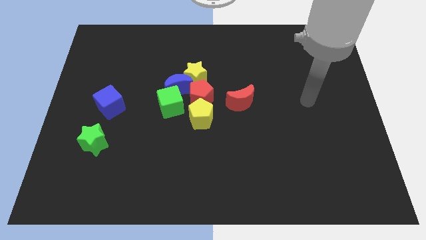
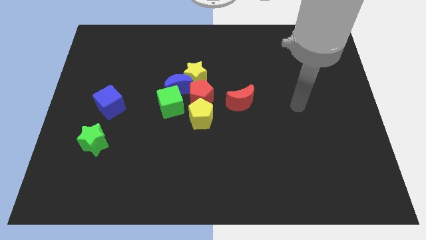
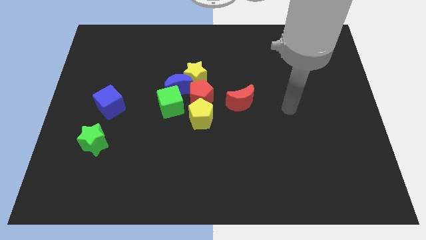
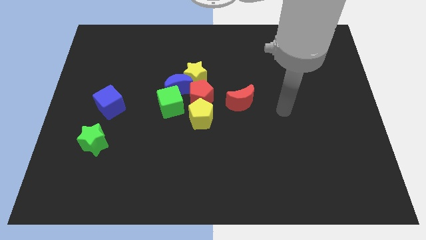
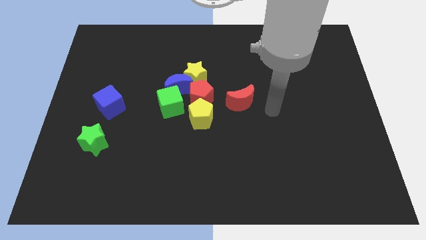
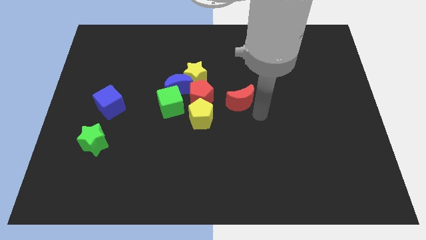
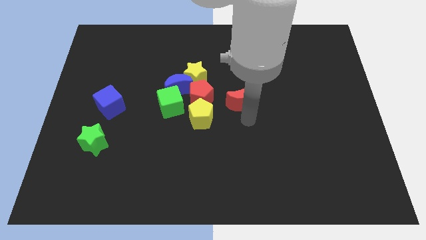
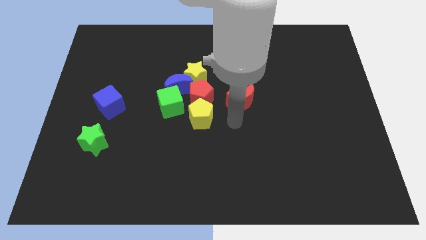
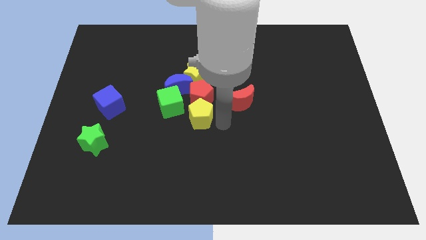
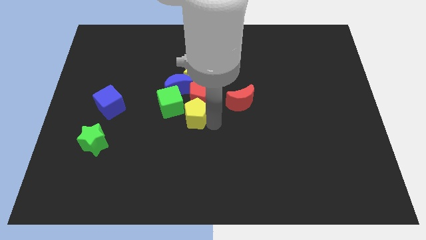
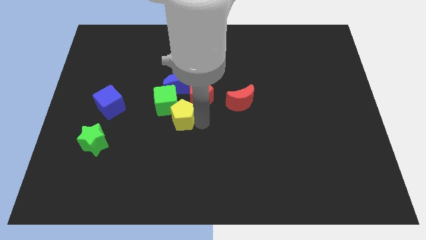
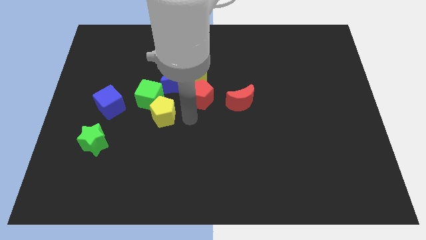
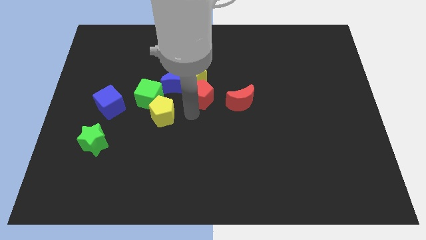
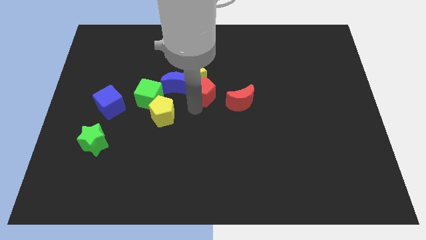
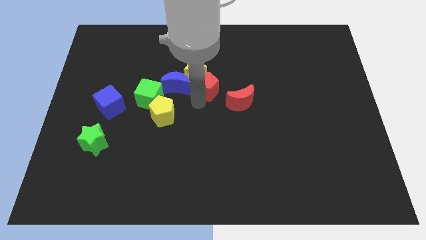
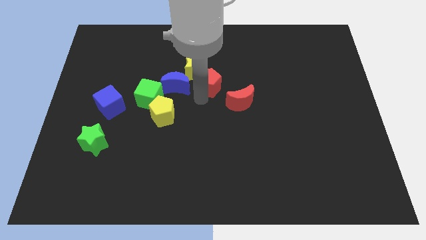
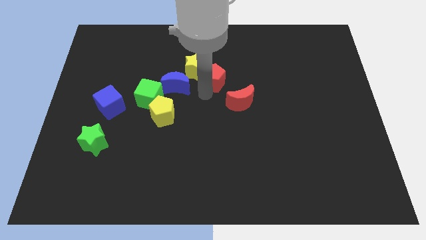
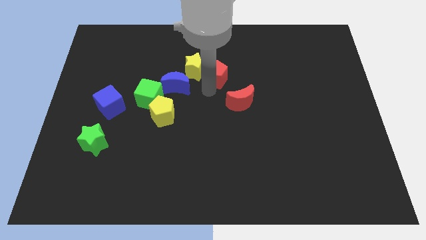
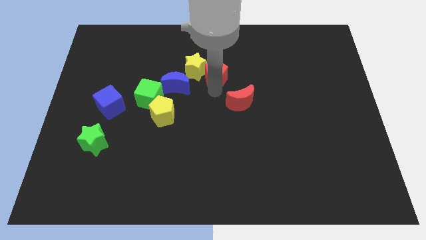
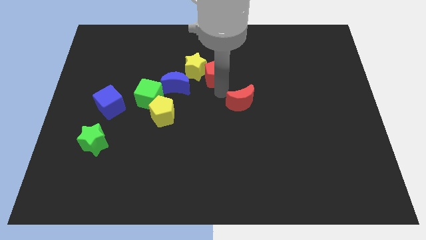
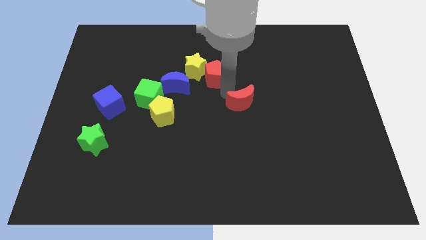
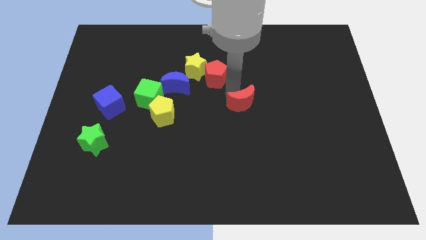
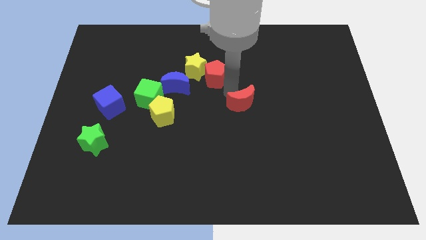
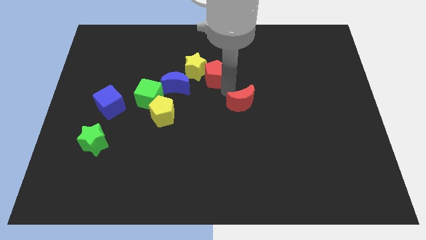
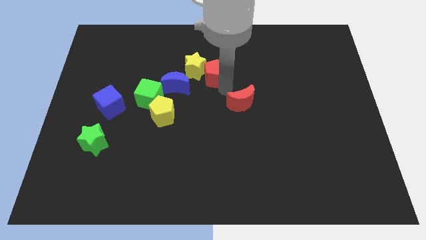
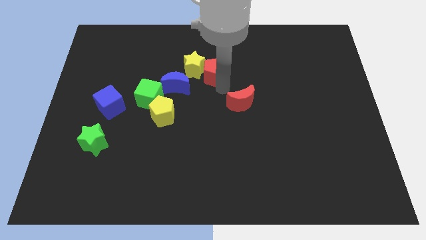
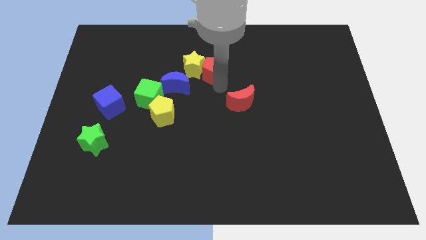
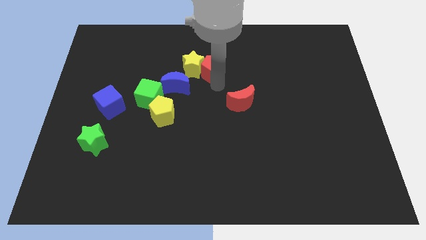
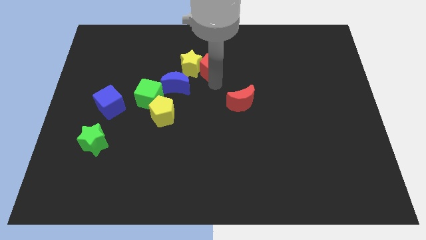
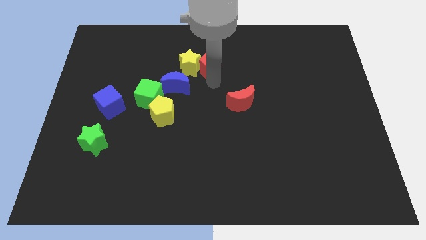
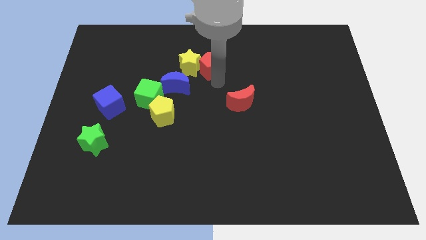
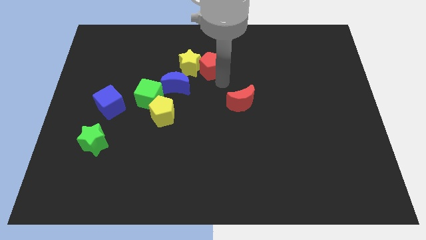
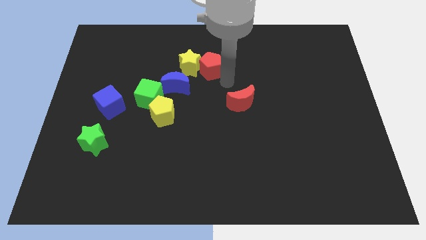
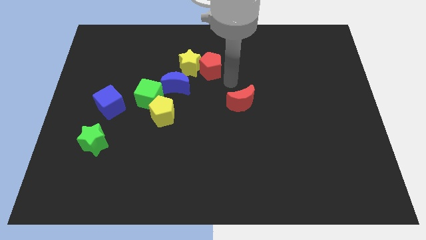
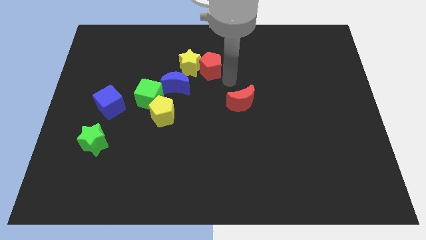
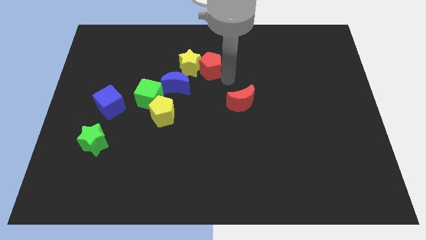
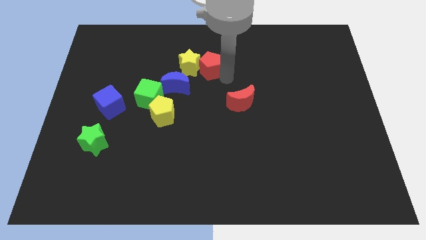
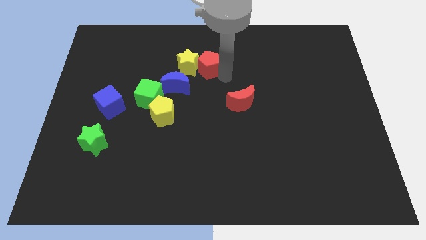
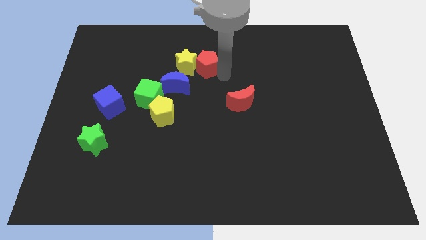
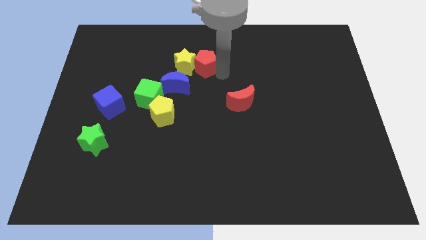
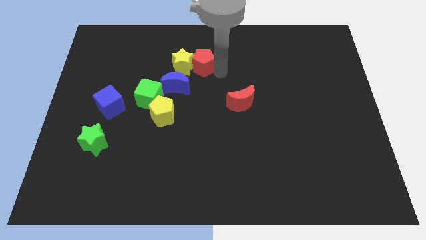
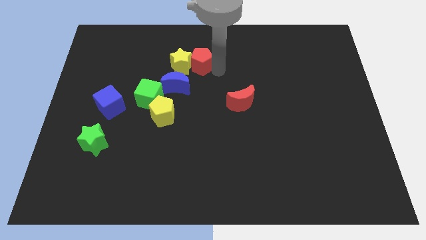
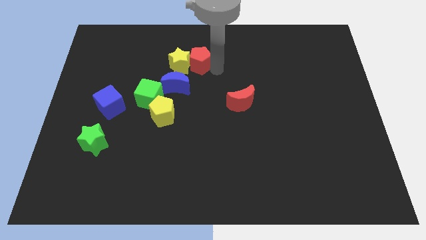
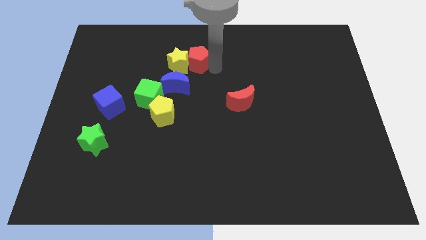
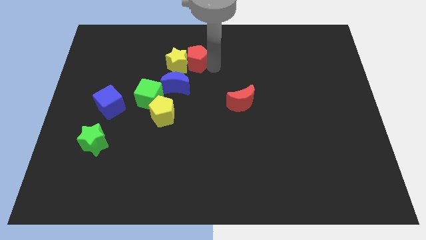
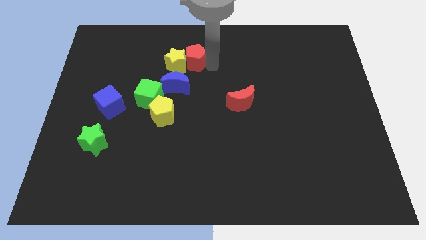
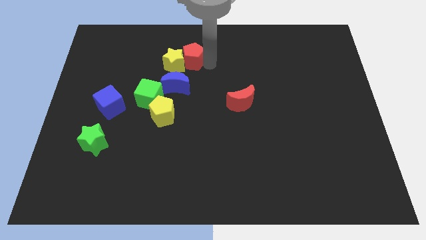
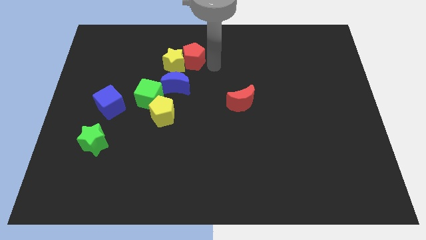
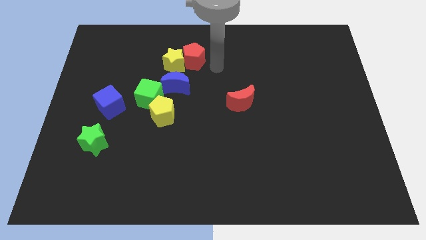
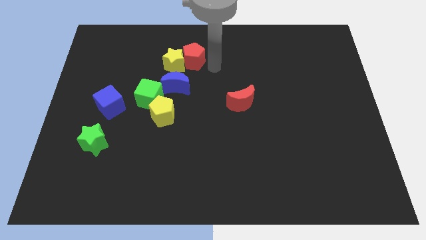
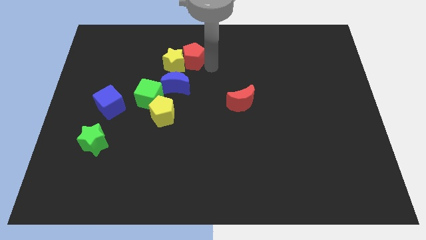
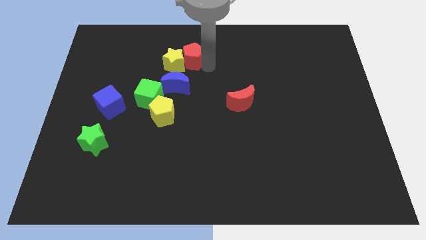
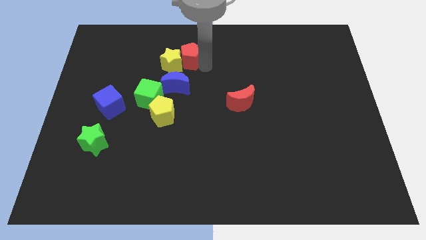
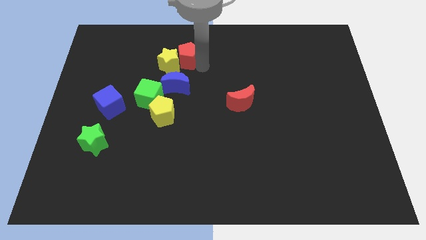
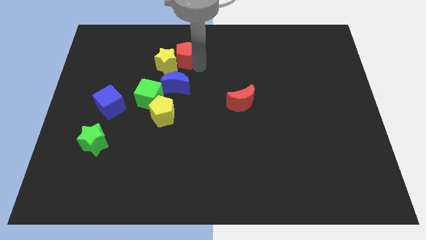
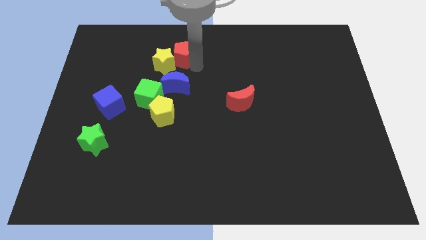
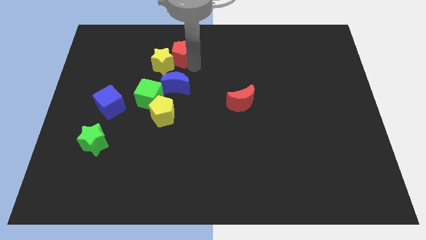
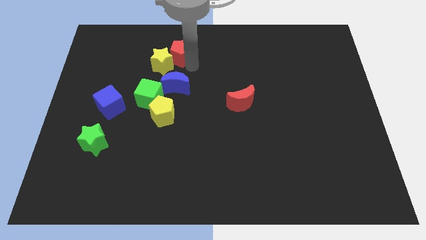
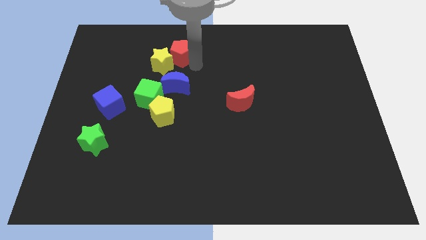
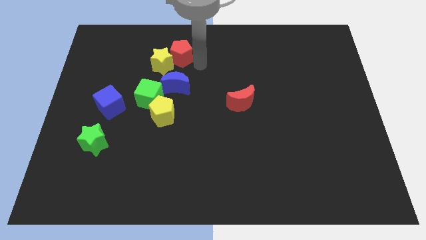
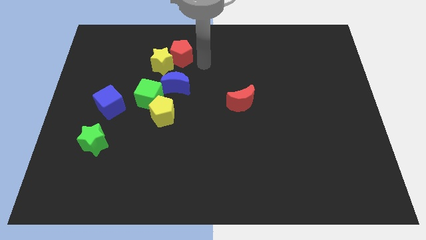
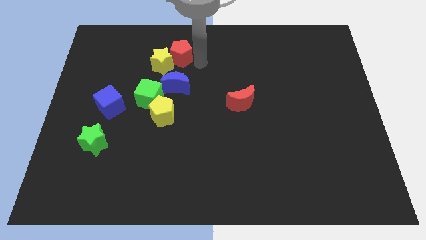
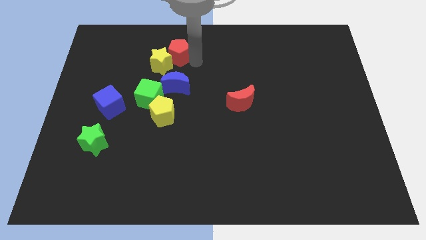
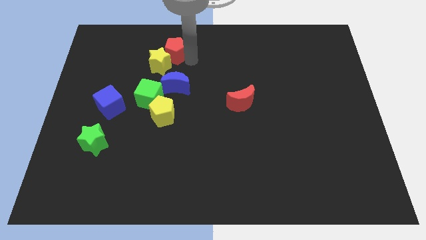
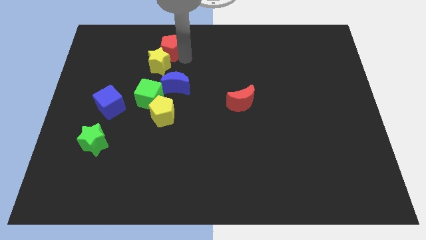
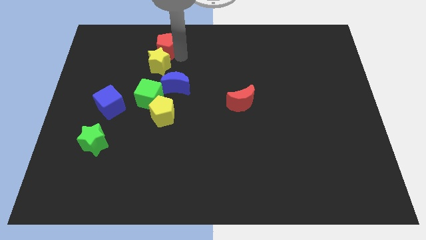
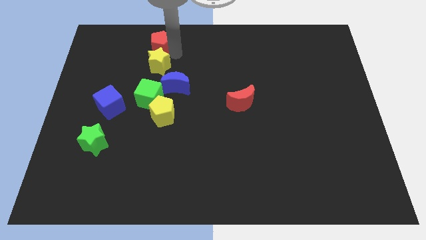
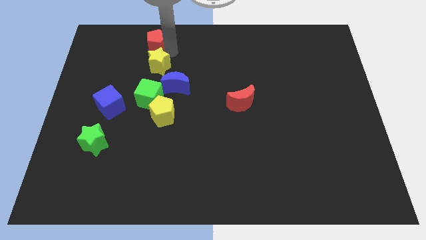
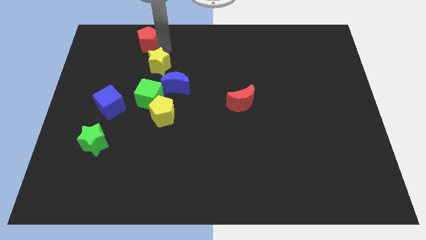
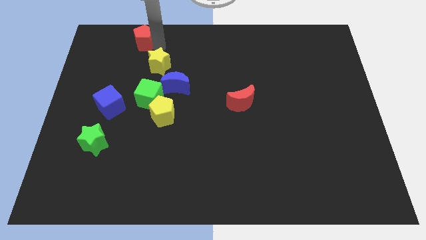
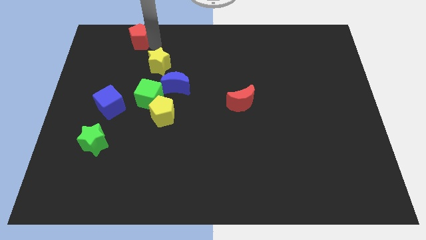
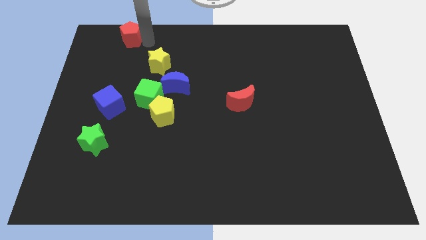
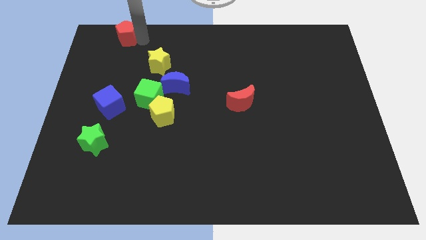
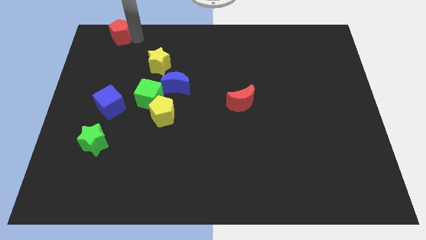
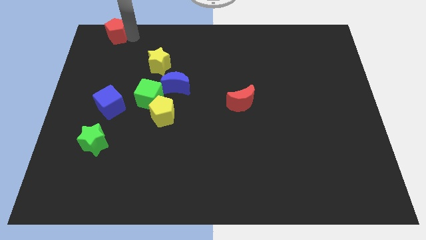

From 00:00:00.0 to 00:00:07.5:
slide the red pentagon to the top left
